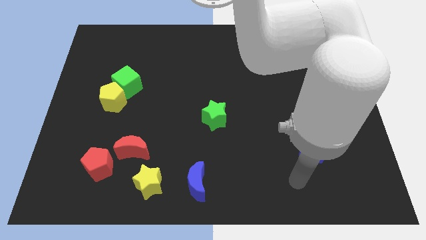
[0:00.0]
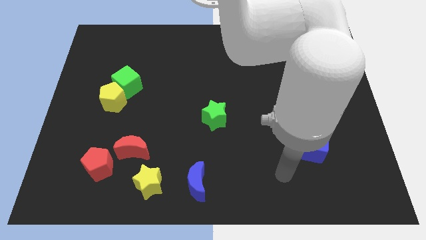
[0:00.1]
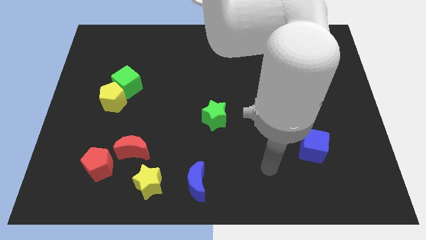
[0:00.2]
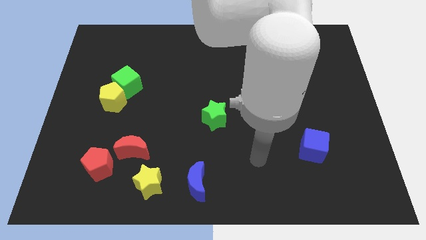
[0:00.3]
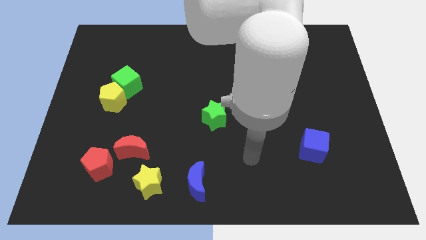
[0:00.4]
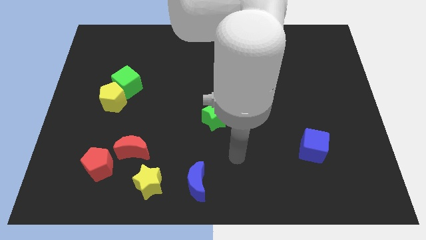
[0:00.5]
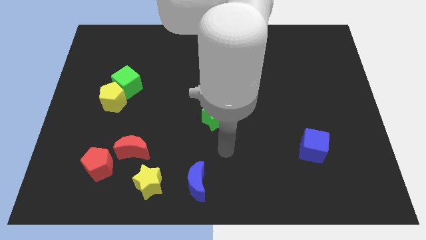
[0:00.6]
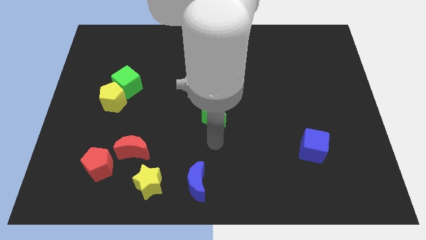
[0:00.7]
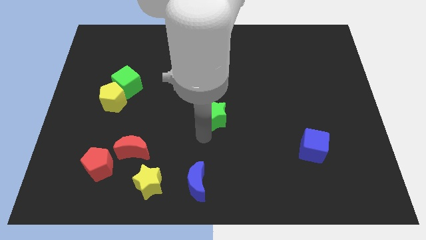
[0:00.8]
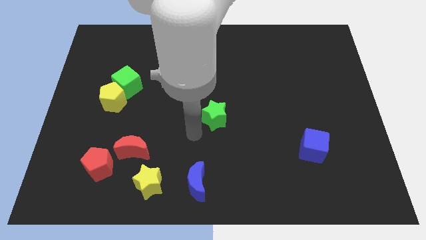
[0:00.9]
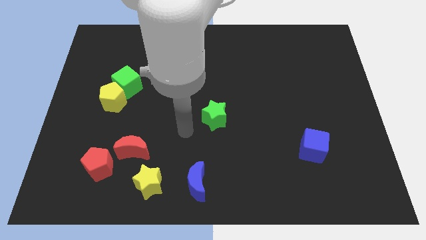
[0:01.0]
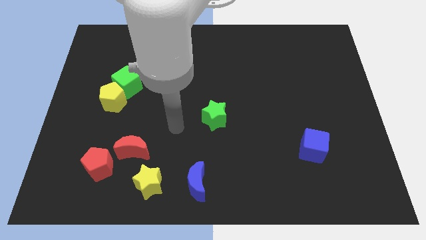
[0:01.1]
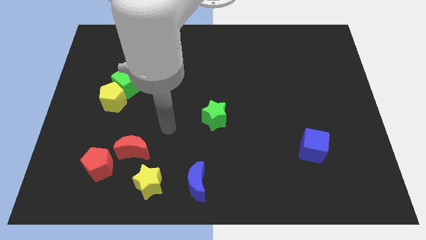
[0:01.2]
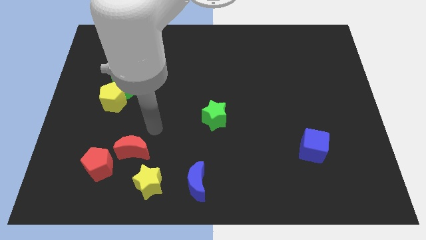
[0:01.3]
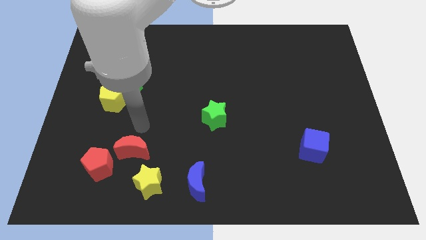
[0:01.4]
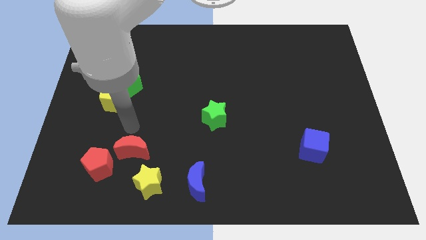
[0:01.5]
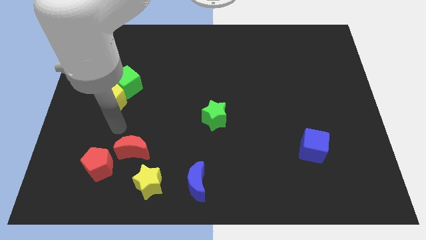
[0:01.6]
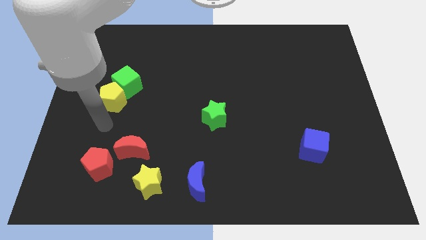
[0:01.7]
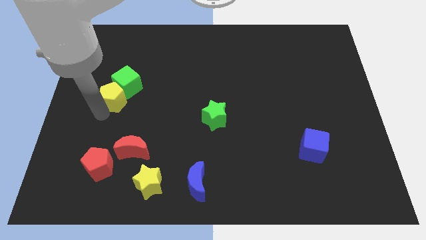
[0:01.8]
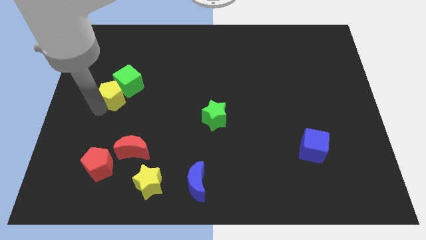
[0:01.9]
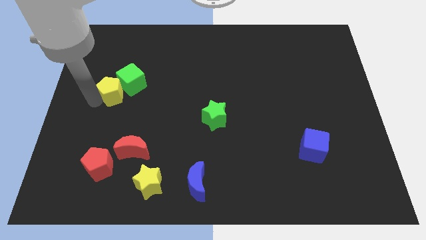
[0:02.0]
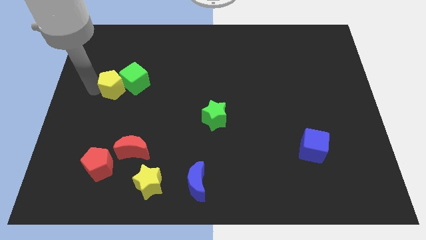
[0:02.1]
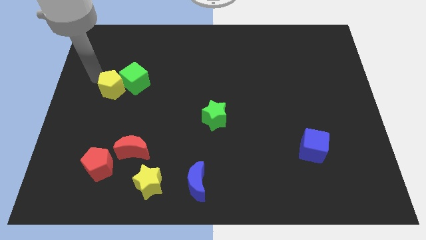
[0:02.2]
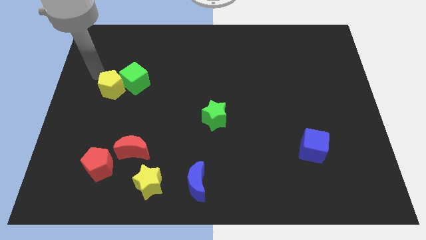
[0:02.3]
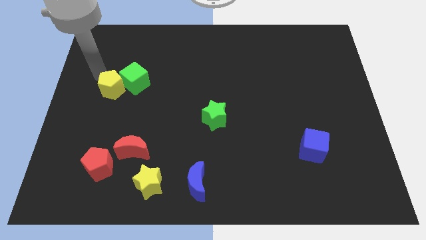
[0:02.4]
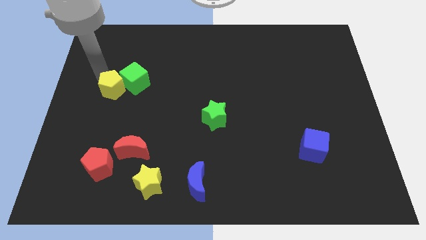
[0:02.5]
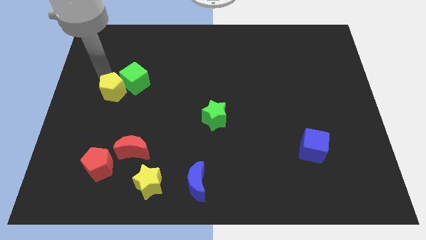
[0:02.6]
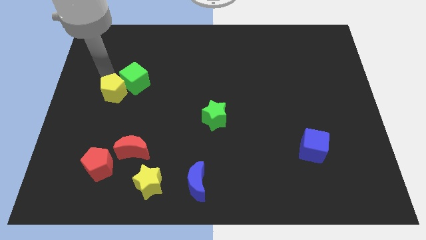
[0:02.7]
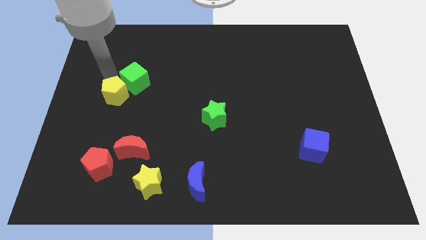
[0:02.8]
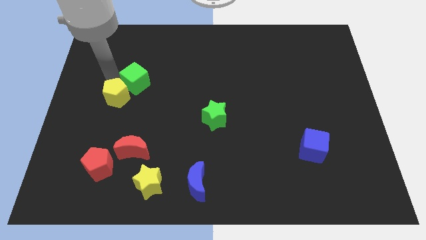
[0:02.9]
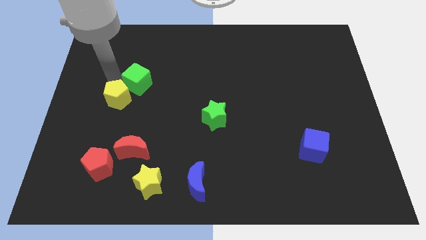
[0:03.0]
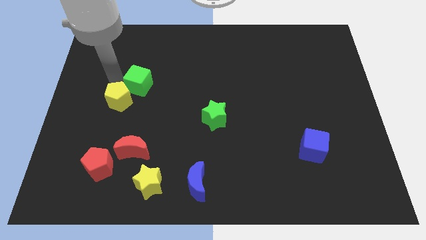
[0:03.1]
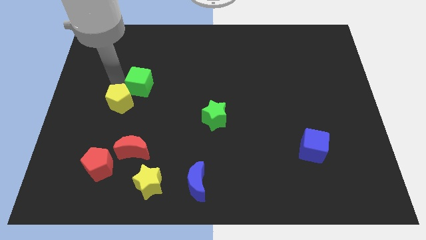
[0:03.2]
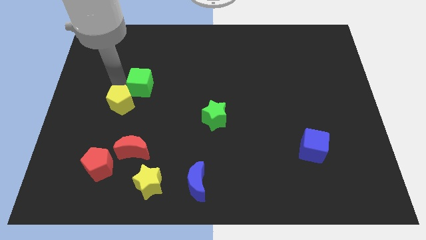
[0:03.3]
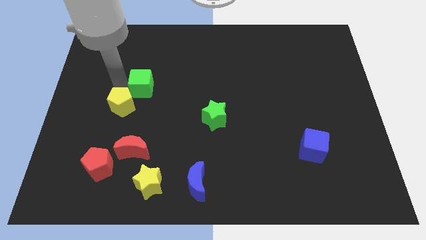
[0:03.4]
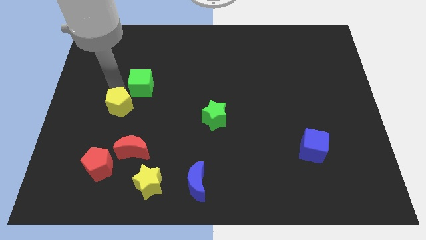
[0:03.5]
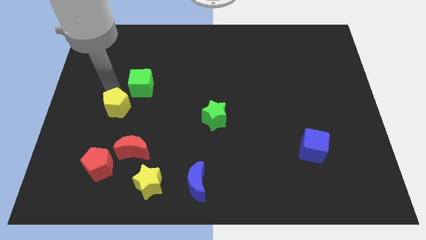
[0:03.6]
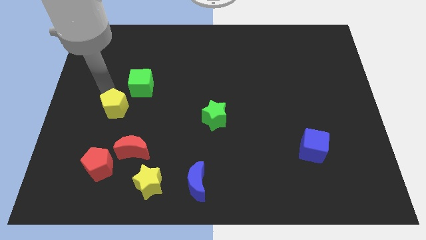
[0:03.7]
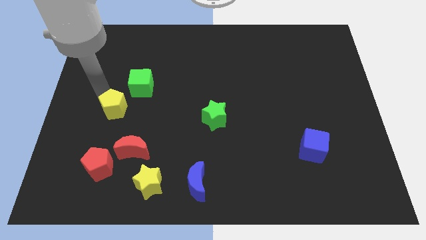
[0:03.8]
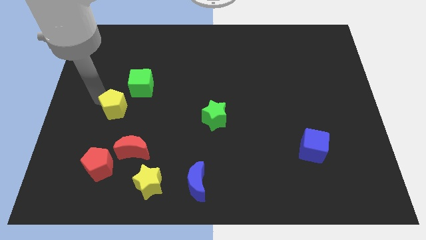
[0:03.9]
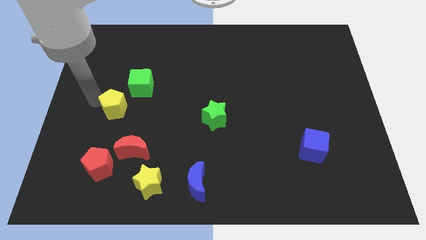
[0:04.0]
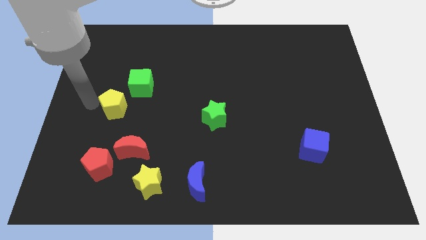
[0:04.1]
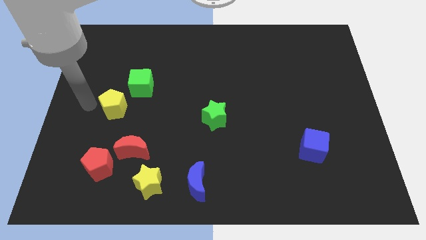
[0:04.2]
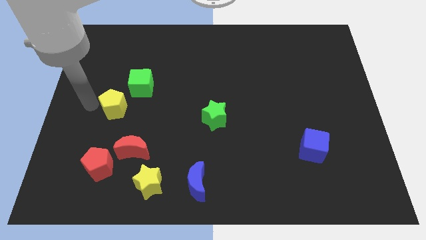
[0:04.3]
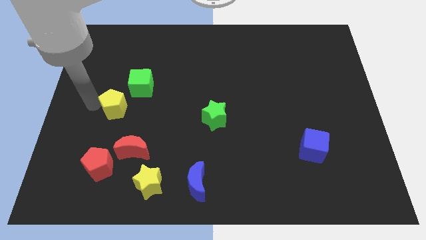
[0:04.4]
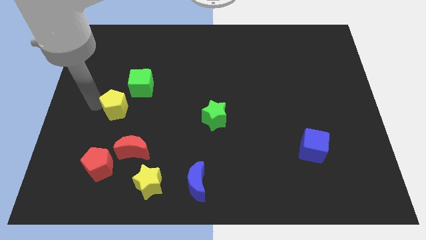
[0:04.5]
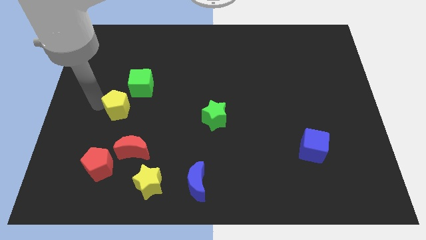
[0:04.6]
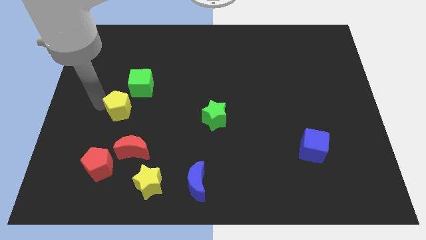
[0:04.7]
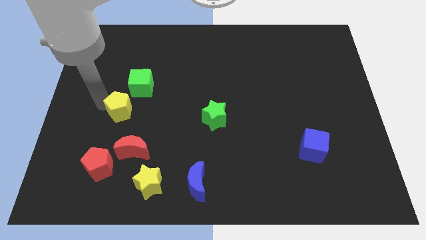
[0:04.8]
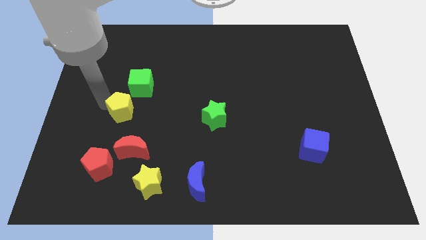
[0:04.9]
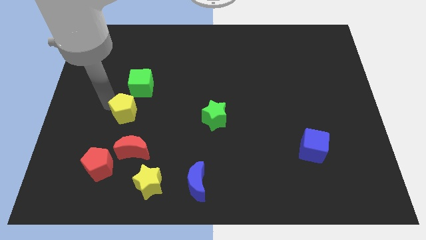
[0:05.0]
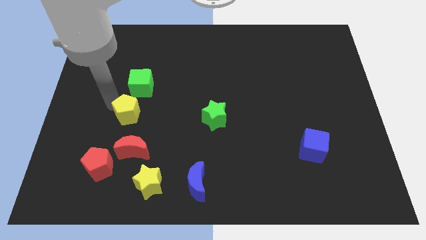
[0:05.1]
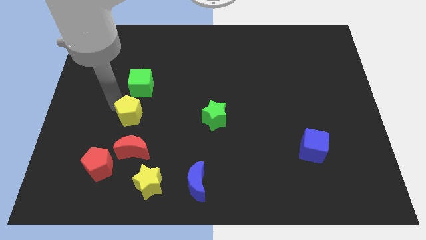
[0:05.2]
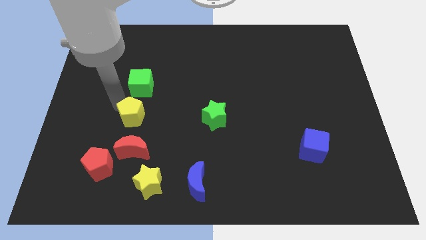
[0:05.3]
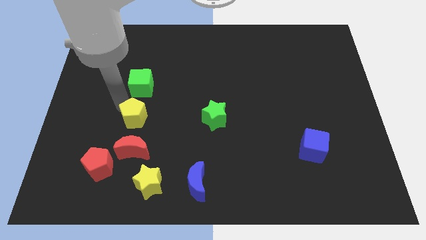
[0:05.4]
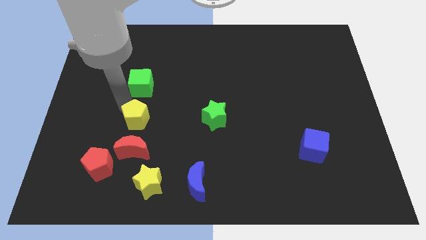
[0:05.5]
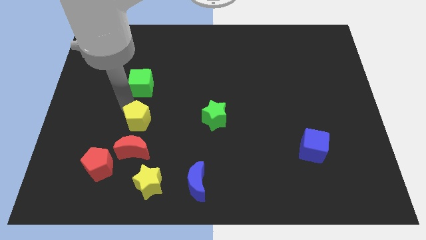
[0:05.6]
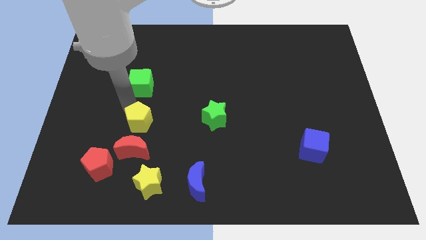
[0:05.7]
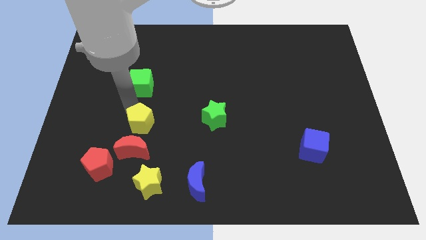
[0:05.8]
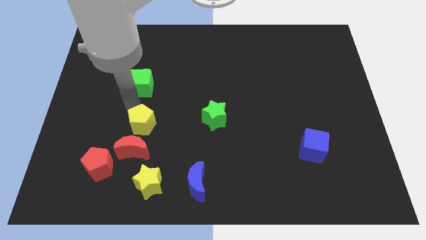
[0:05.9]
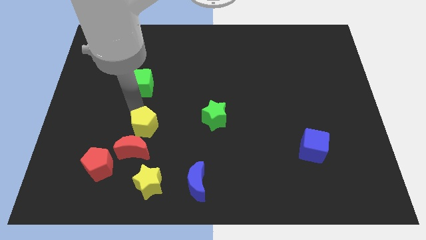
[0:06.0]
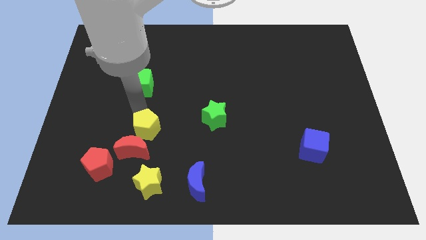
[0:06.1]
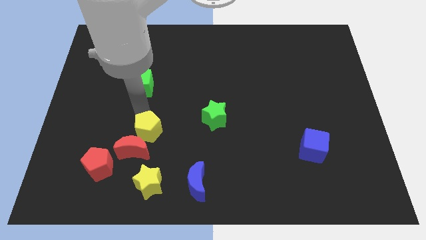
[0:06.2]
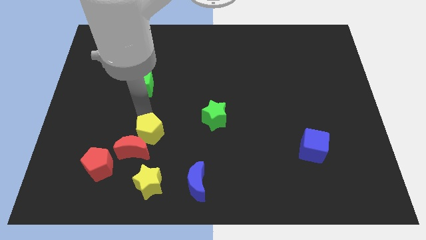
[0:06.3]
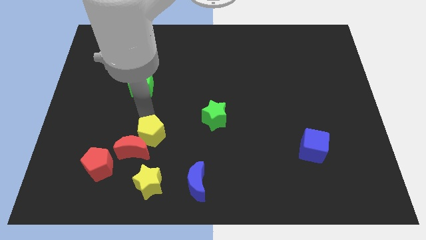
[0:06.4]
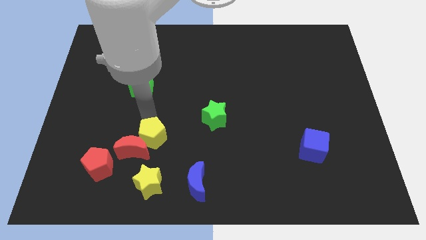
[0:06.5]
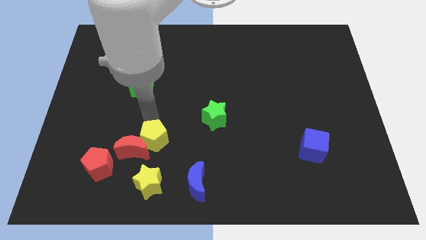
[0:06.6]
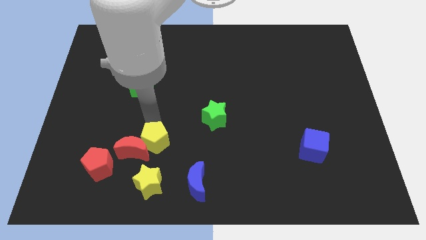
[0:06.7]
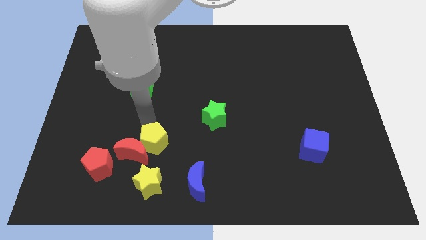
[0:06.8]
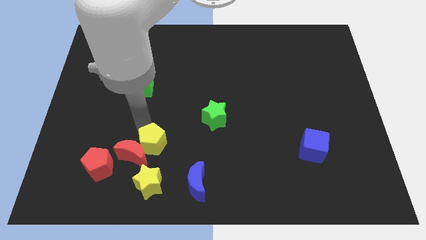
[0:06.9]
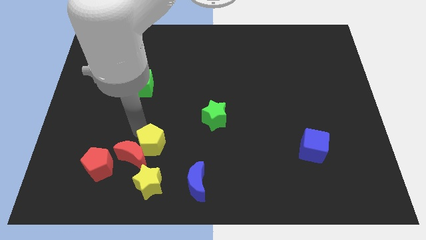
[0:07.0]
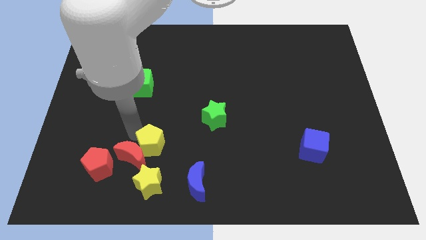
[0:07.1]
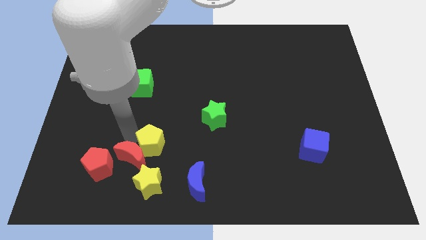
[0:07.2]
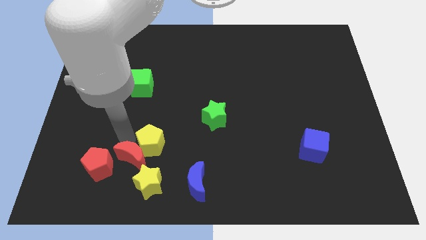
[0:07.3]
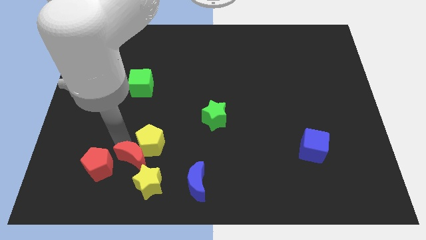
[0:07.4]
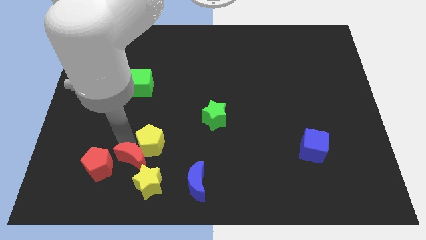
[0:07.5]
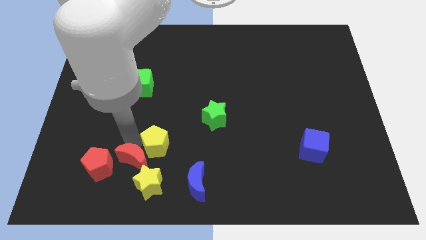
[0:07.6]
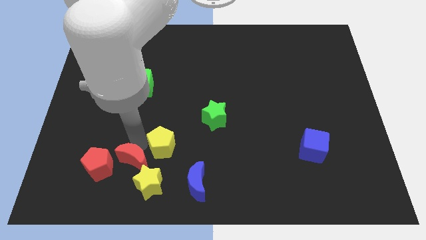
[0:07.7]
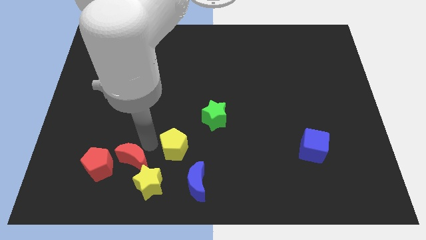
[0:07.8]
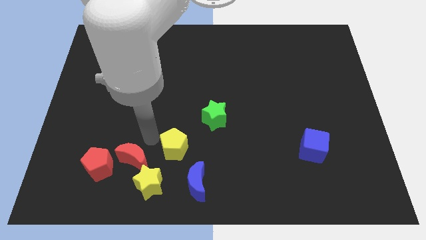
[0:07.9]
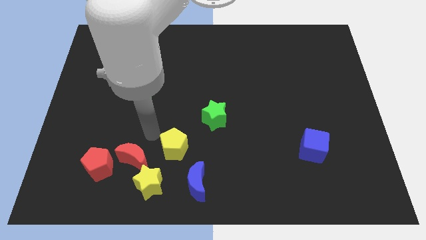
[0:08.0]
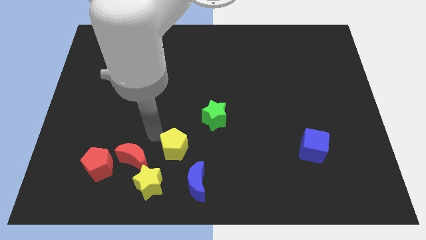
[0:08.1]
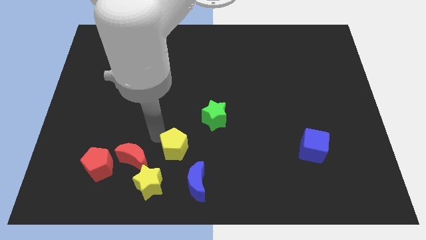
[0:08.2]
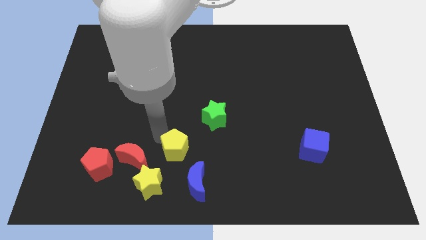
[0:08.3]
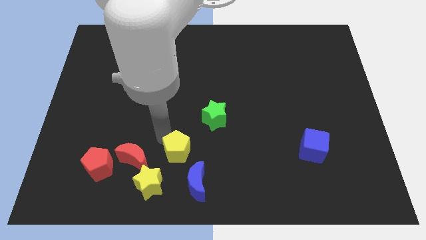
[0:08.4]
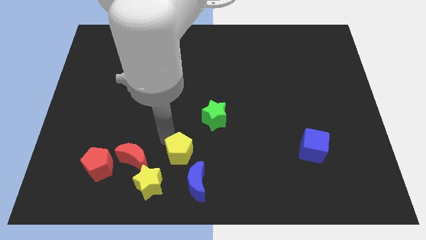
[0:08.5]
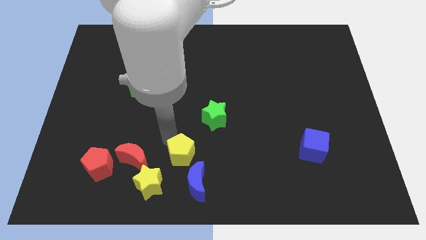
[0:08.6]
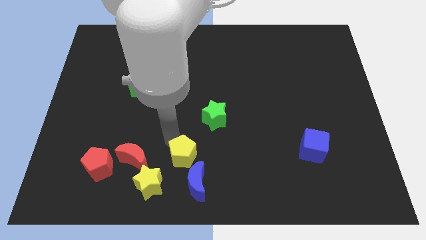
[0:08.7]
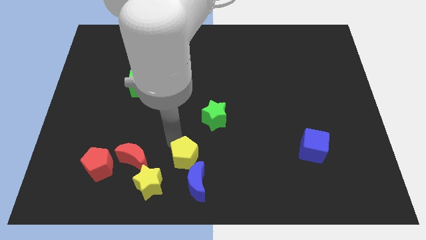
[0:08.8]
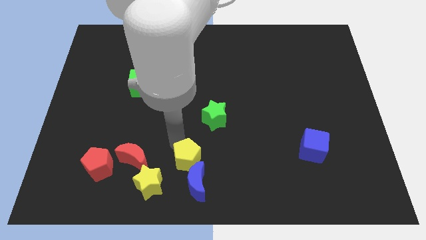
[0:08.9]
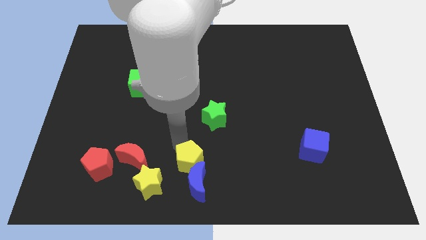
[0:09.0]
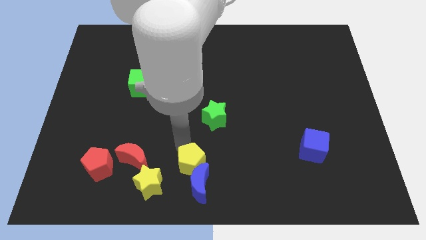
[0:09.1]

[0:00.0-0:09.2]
put the yellow pentagon to the right of the yellow star
